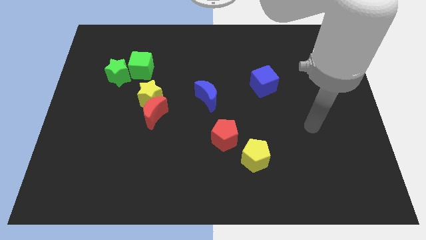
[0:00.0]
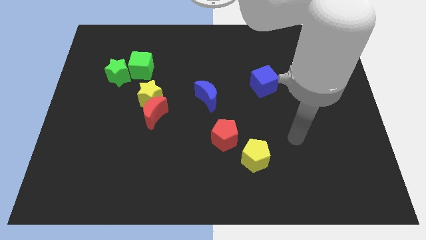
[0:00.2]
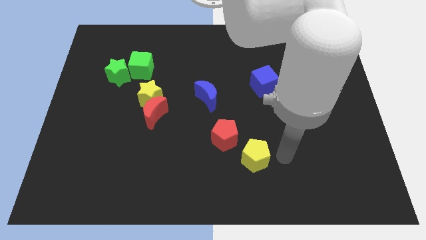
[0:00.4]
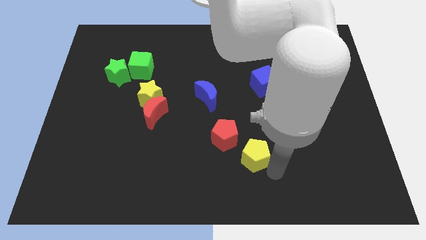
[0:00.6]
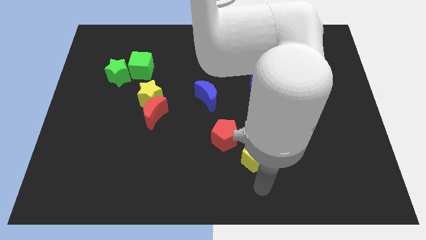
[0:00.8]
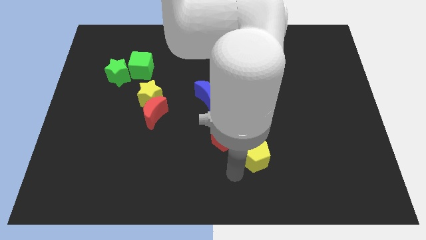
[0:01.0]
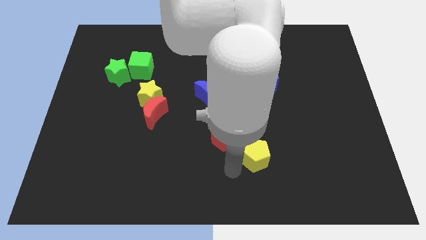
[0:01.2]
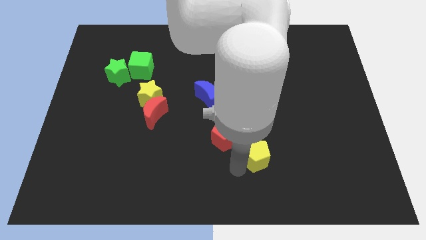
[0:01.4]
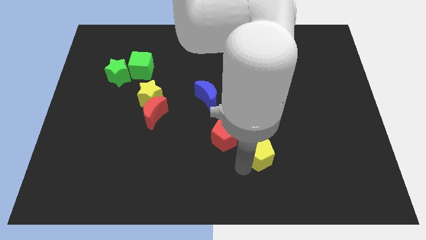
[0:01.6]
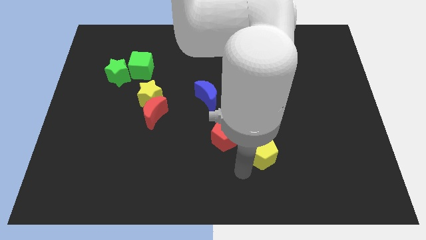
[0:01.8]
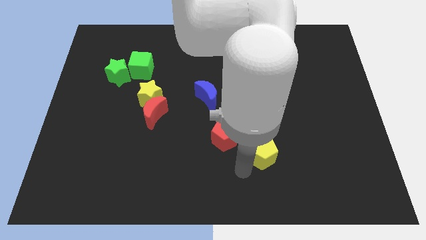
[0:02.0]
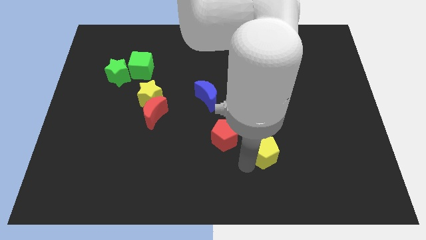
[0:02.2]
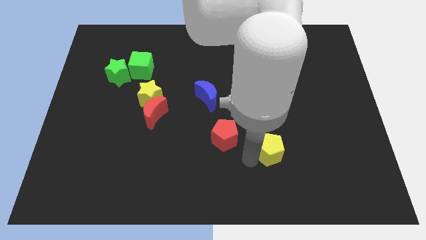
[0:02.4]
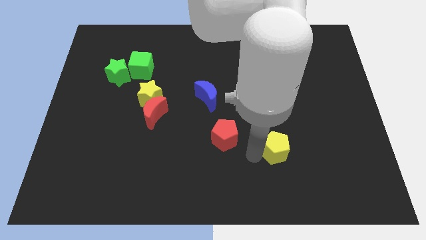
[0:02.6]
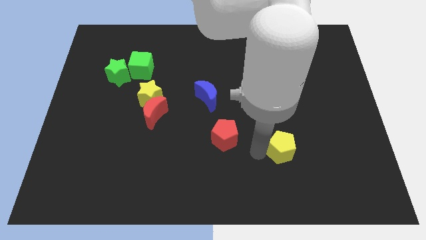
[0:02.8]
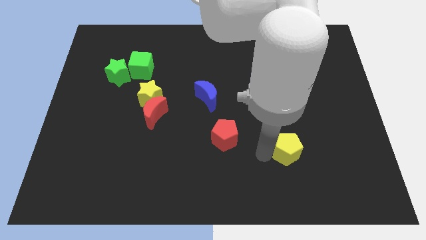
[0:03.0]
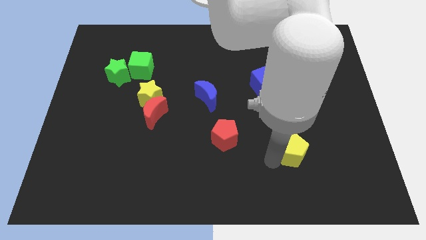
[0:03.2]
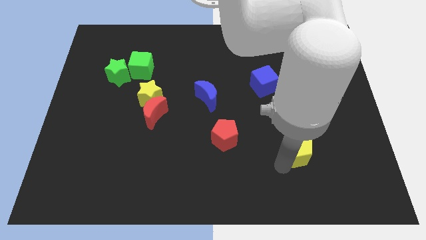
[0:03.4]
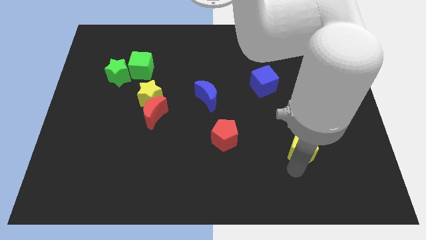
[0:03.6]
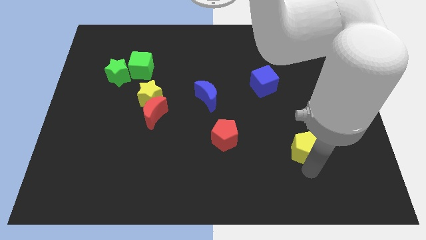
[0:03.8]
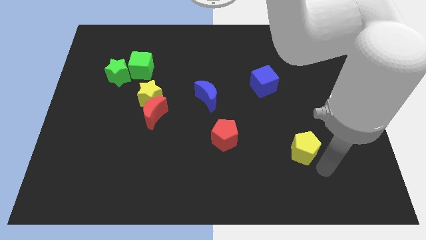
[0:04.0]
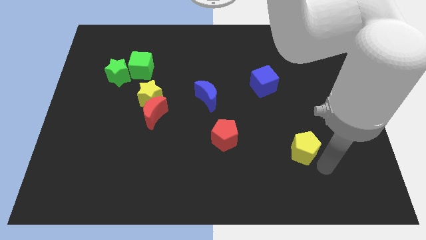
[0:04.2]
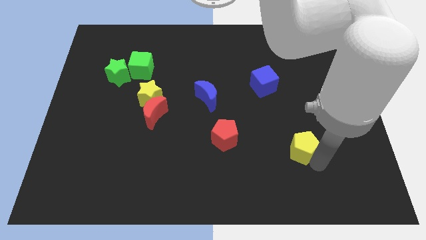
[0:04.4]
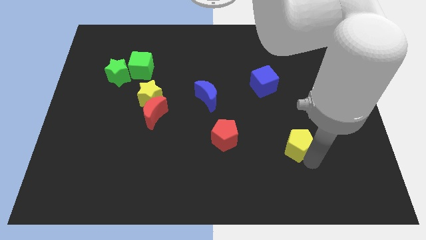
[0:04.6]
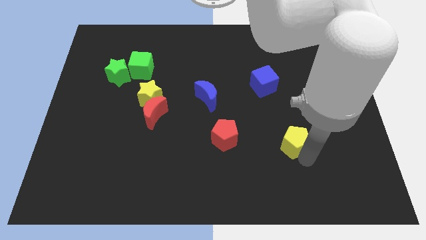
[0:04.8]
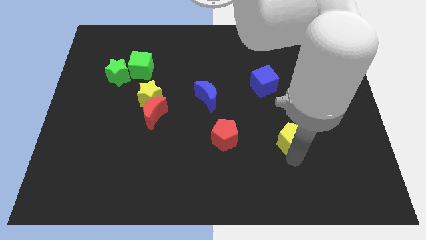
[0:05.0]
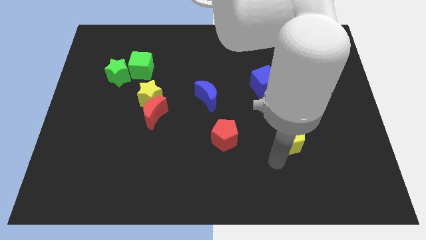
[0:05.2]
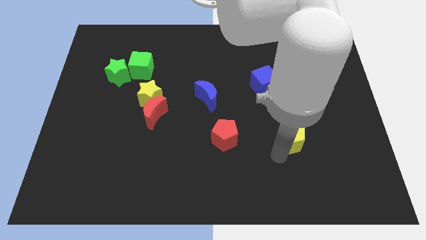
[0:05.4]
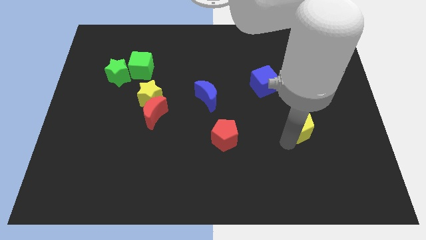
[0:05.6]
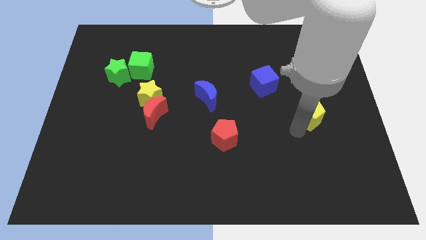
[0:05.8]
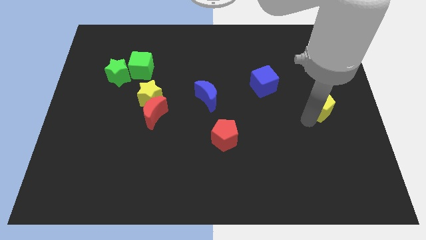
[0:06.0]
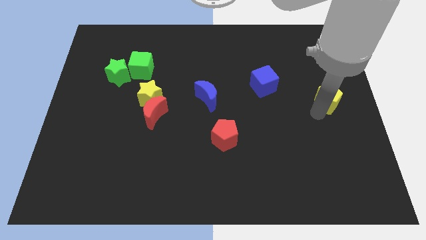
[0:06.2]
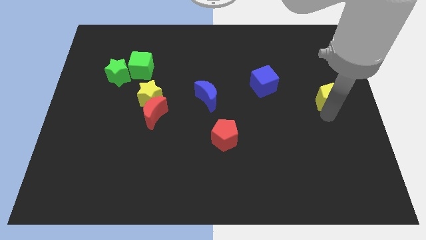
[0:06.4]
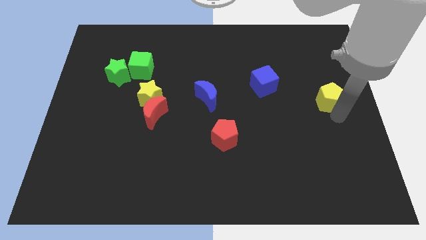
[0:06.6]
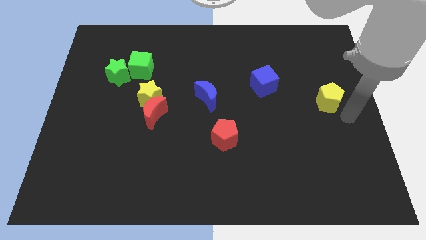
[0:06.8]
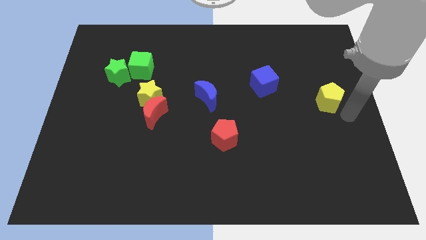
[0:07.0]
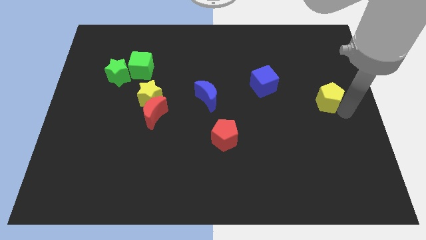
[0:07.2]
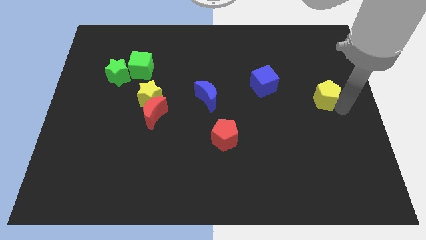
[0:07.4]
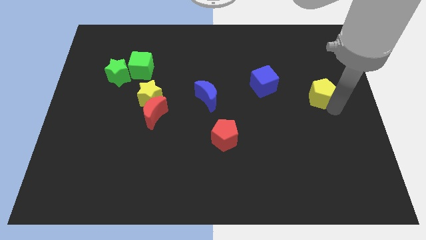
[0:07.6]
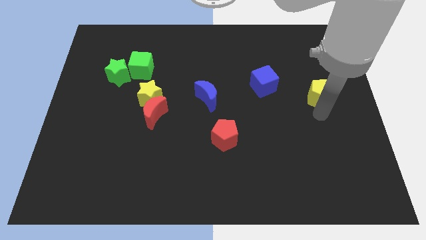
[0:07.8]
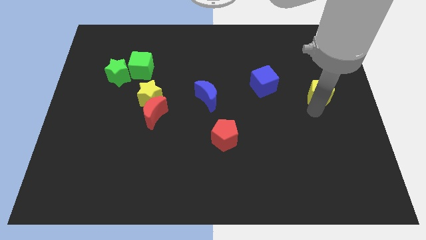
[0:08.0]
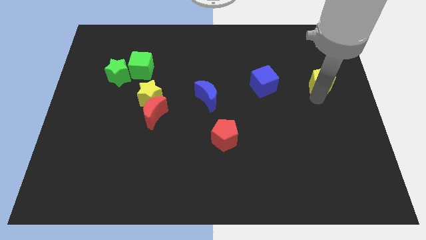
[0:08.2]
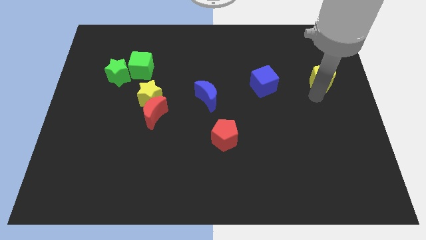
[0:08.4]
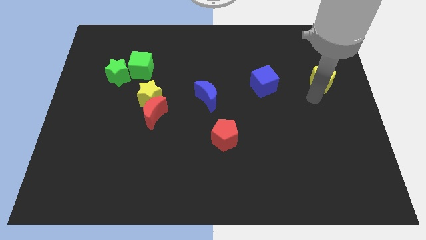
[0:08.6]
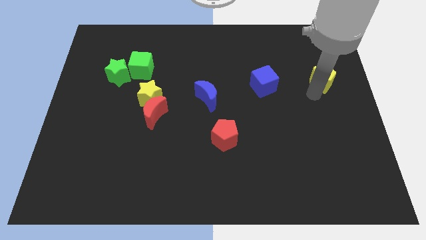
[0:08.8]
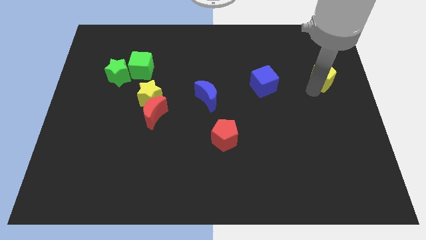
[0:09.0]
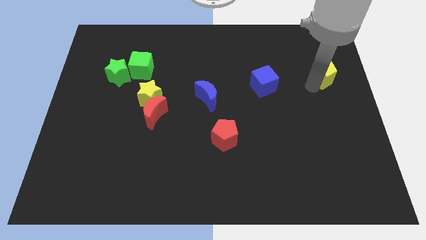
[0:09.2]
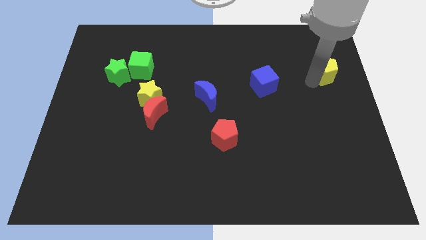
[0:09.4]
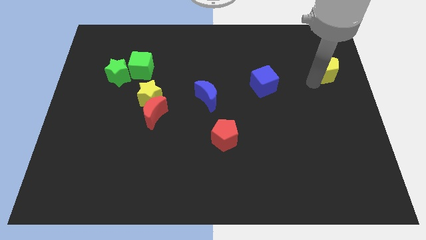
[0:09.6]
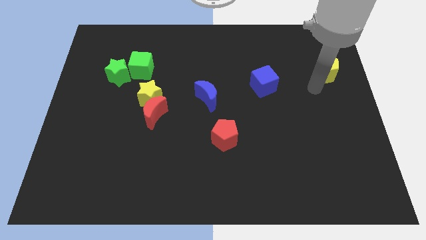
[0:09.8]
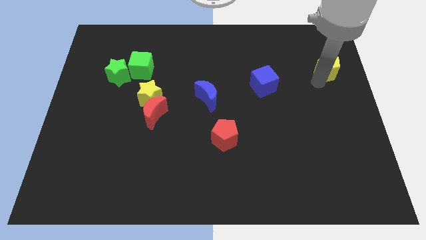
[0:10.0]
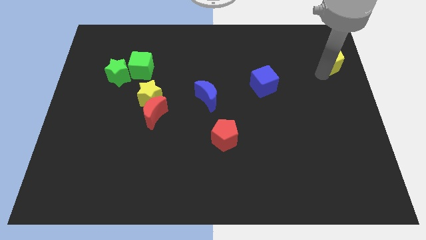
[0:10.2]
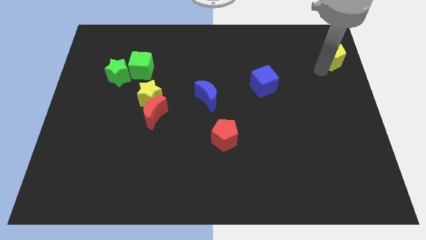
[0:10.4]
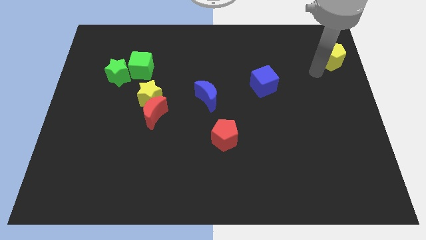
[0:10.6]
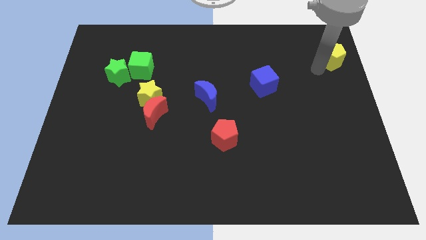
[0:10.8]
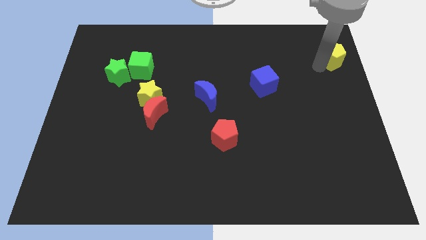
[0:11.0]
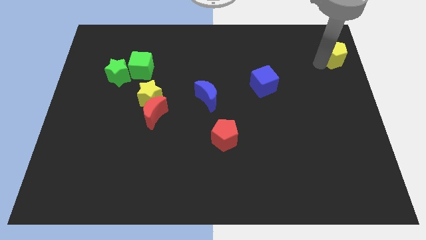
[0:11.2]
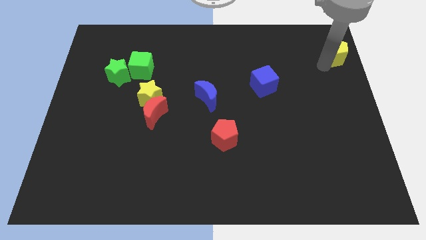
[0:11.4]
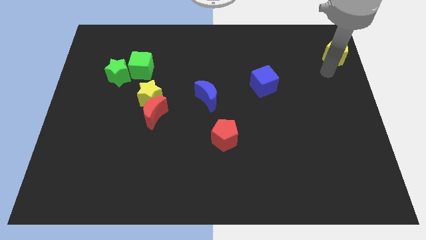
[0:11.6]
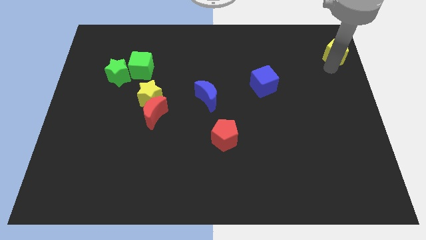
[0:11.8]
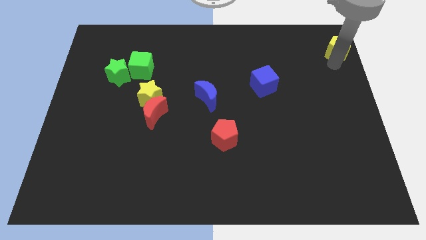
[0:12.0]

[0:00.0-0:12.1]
slide the yellow pentagon to the top right corner
